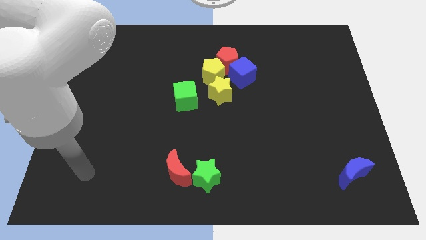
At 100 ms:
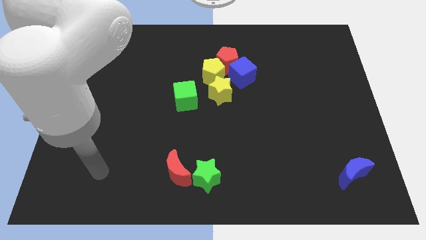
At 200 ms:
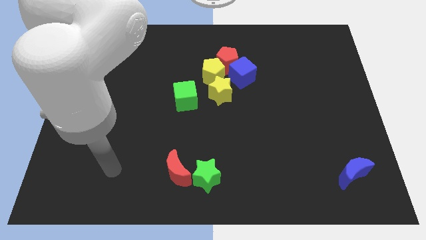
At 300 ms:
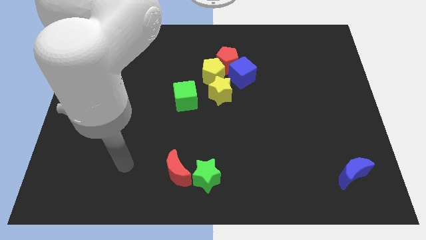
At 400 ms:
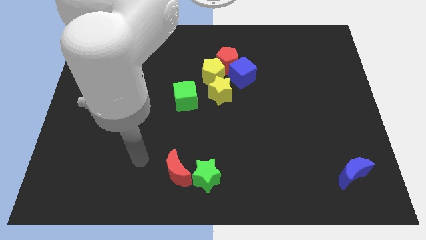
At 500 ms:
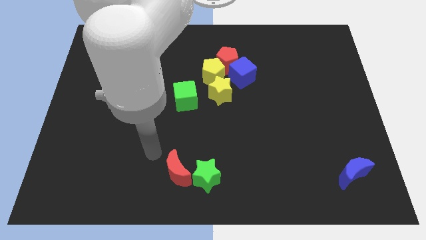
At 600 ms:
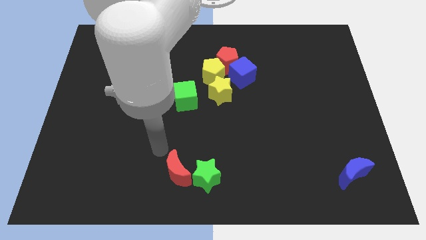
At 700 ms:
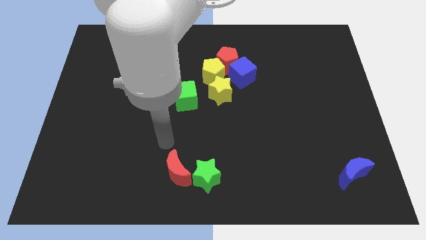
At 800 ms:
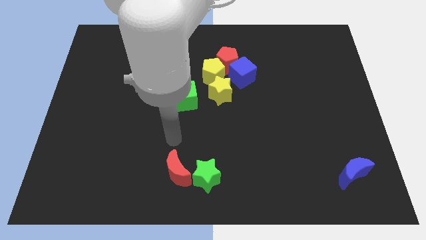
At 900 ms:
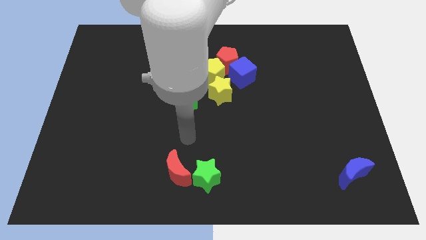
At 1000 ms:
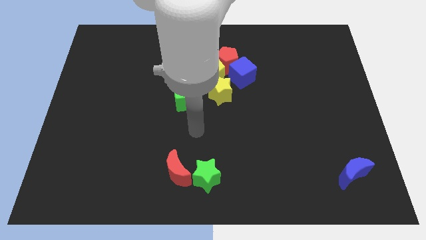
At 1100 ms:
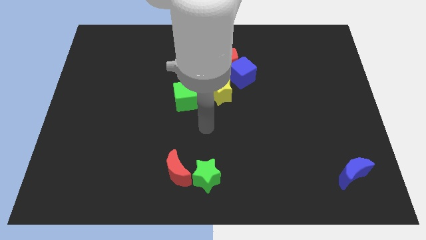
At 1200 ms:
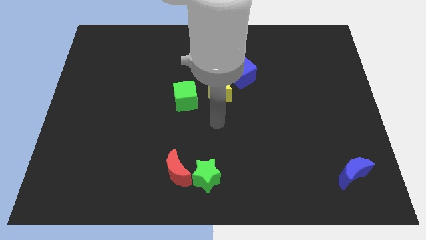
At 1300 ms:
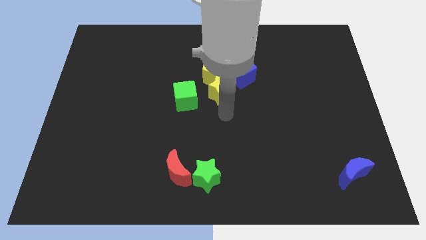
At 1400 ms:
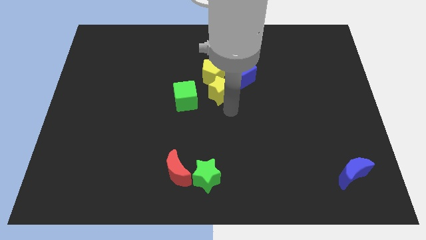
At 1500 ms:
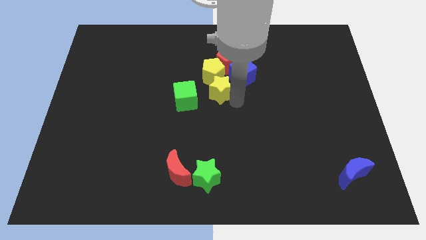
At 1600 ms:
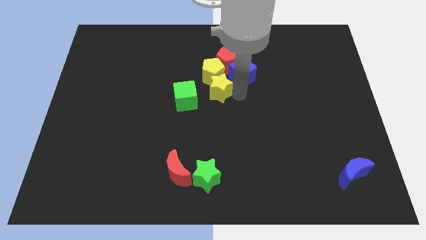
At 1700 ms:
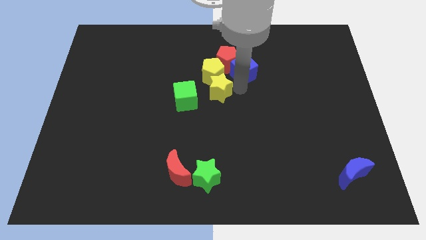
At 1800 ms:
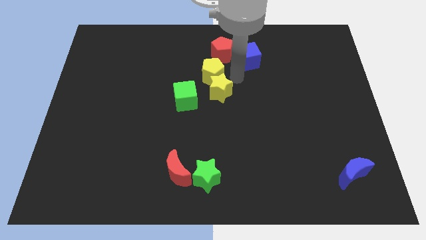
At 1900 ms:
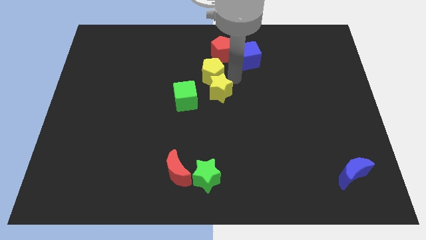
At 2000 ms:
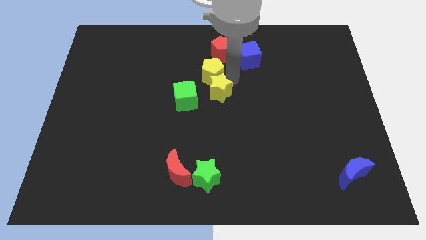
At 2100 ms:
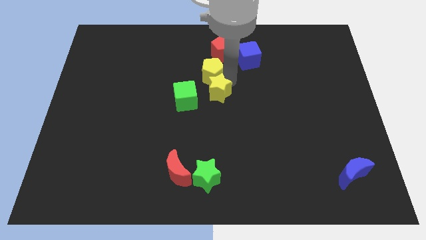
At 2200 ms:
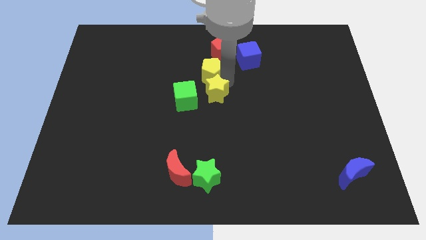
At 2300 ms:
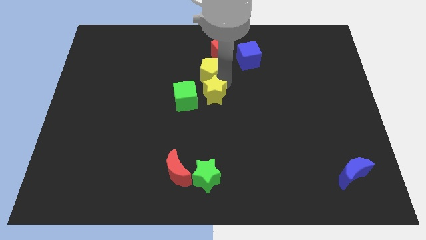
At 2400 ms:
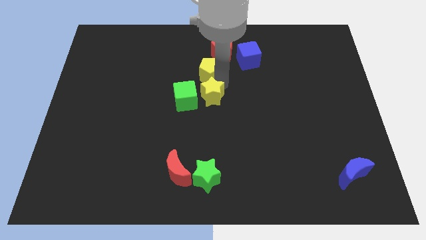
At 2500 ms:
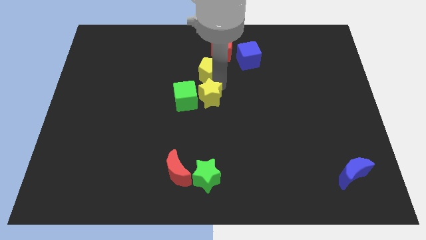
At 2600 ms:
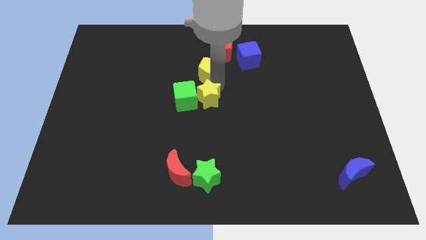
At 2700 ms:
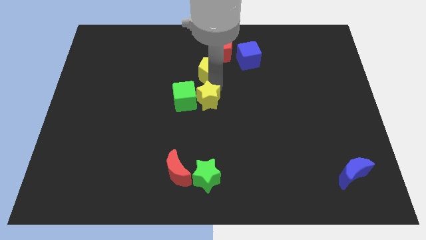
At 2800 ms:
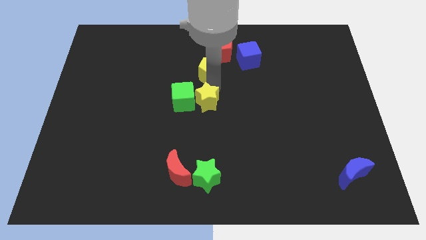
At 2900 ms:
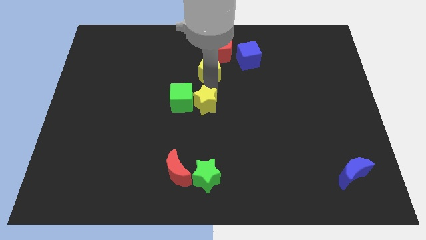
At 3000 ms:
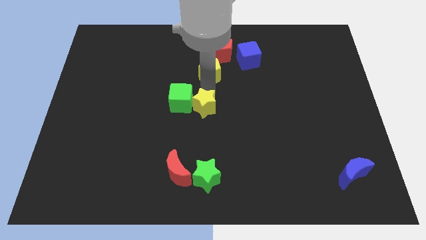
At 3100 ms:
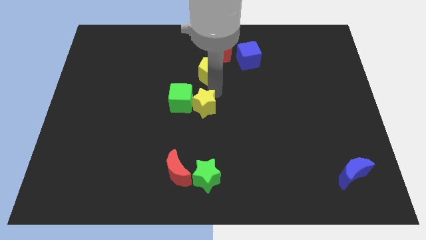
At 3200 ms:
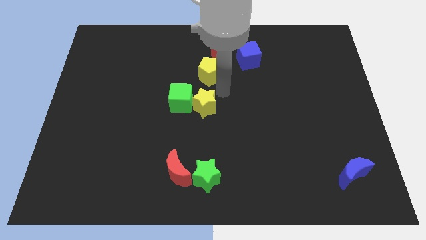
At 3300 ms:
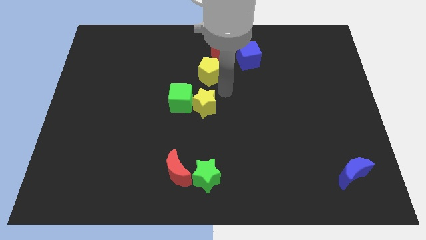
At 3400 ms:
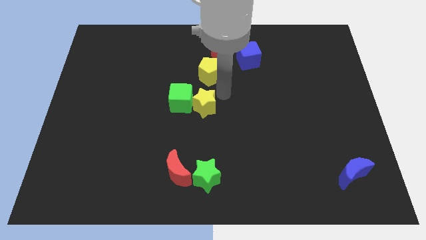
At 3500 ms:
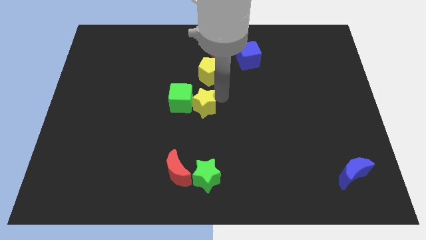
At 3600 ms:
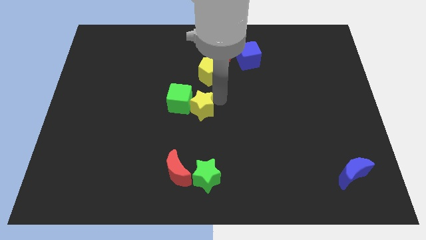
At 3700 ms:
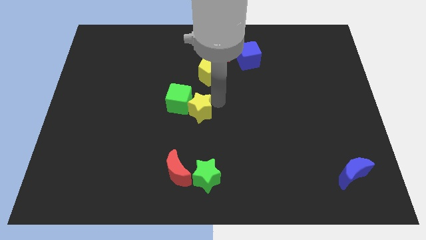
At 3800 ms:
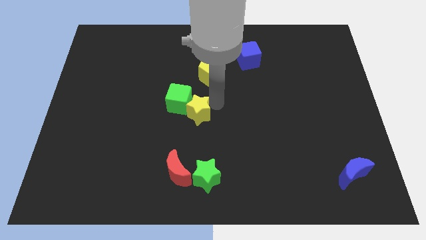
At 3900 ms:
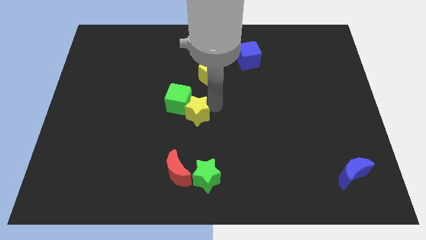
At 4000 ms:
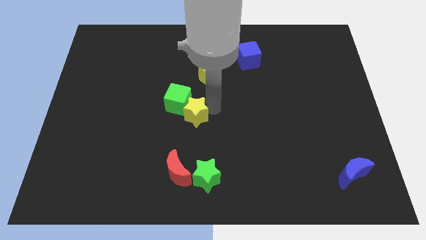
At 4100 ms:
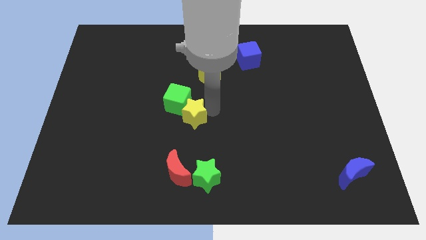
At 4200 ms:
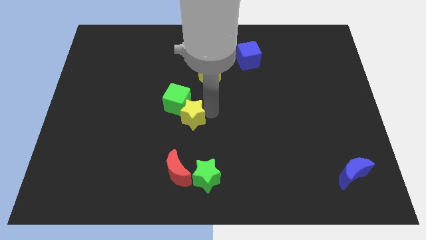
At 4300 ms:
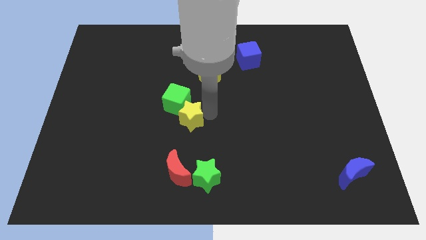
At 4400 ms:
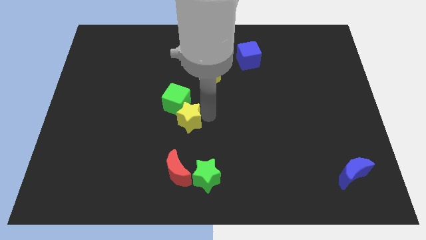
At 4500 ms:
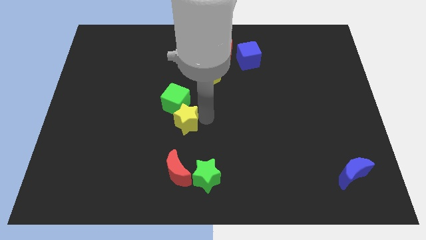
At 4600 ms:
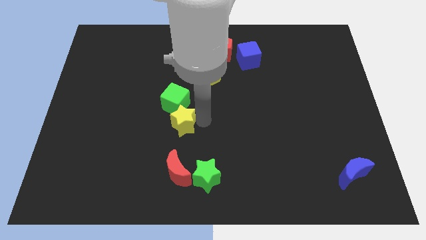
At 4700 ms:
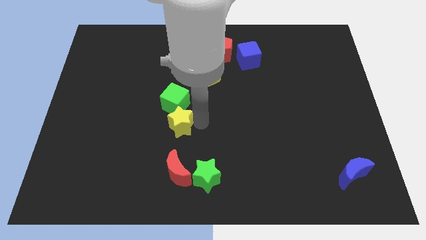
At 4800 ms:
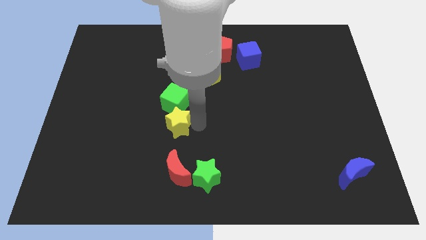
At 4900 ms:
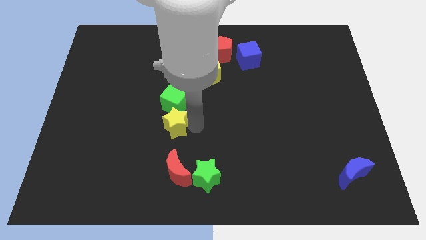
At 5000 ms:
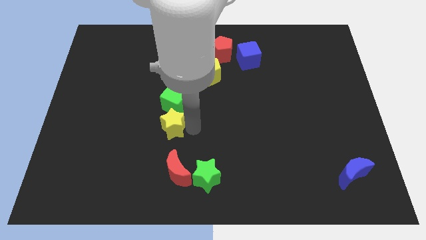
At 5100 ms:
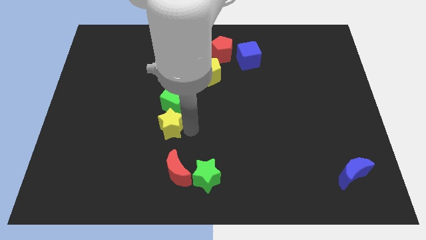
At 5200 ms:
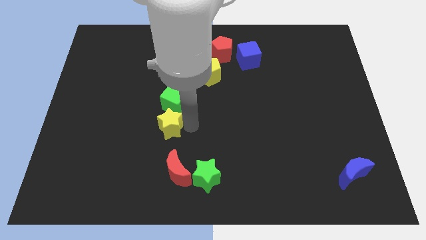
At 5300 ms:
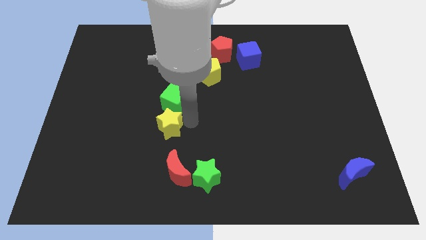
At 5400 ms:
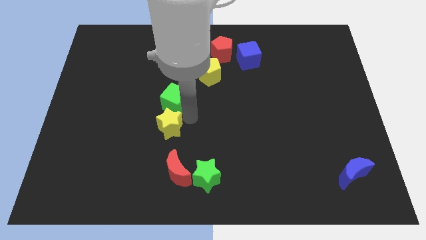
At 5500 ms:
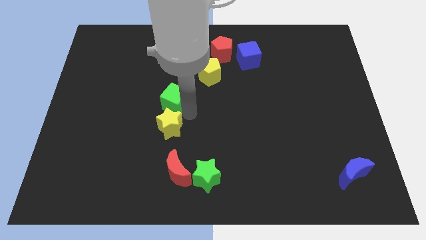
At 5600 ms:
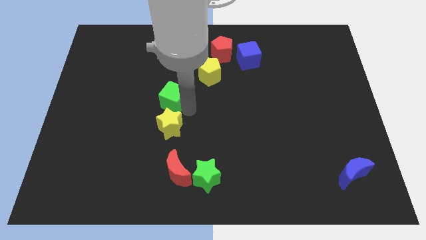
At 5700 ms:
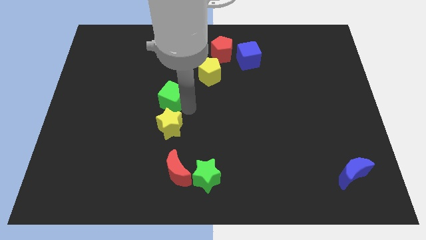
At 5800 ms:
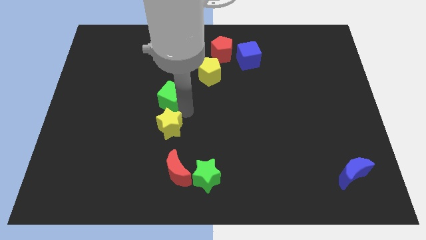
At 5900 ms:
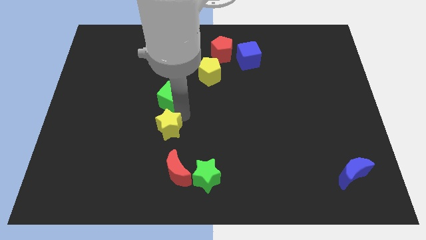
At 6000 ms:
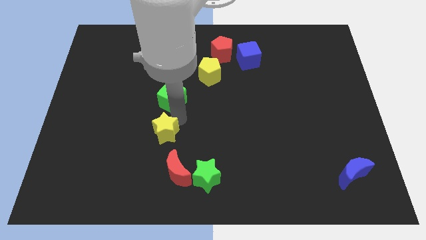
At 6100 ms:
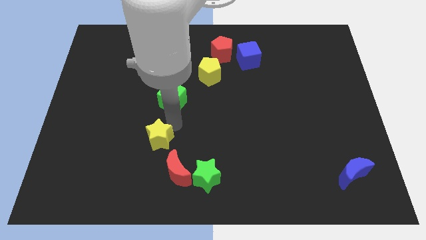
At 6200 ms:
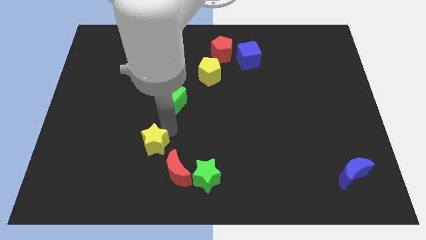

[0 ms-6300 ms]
push the yellow star downwards and then left

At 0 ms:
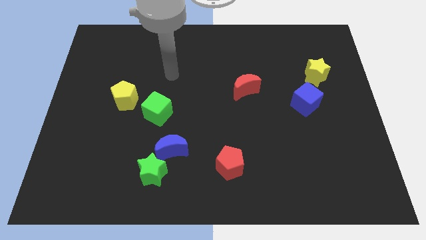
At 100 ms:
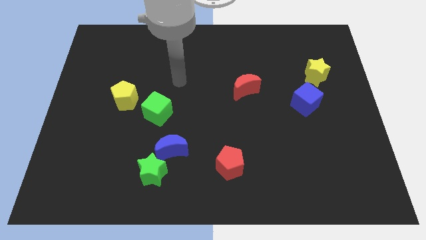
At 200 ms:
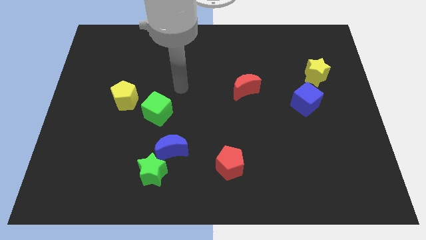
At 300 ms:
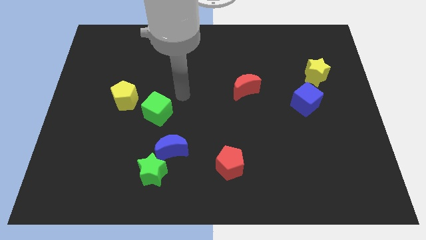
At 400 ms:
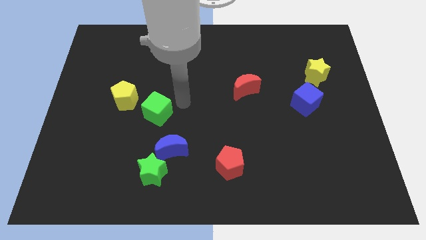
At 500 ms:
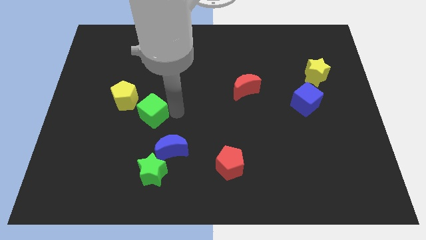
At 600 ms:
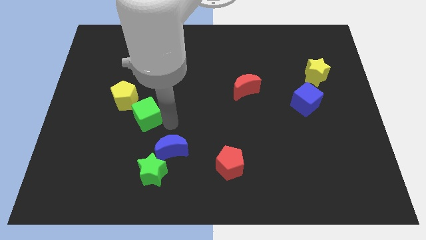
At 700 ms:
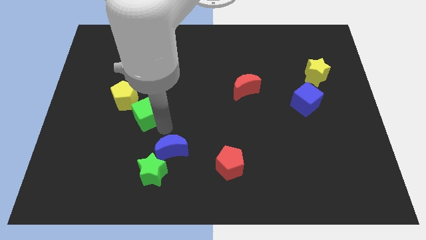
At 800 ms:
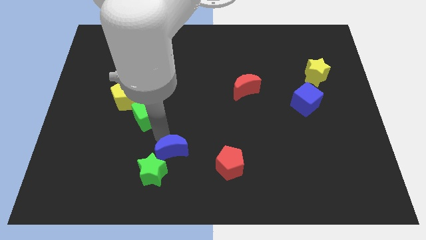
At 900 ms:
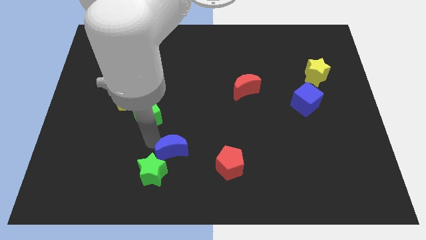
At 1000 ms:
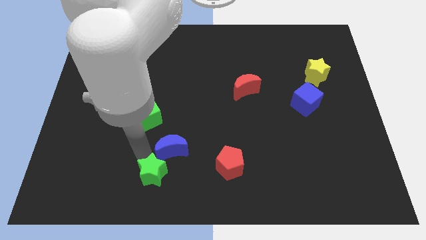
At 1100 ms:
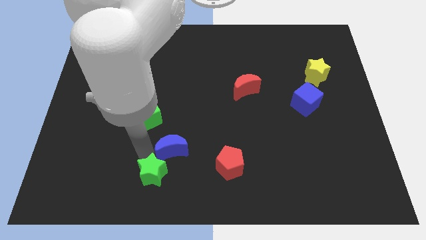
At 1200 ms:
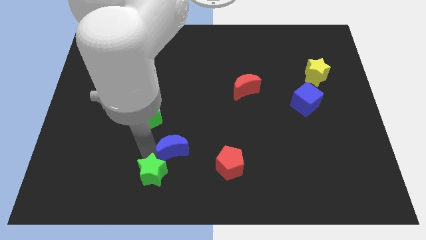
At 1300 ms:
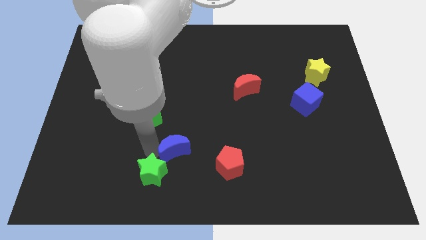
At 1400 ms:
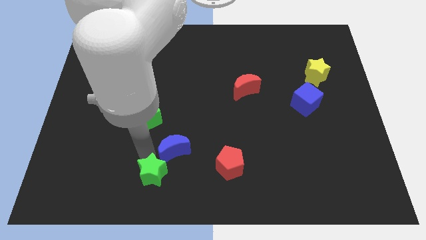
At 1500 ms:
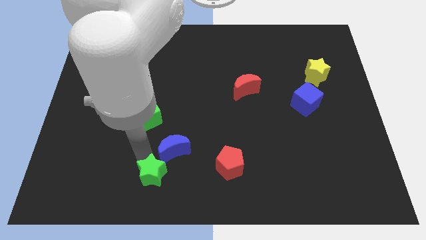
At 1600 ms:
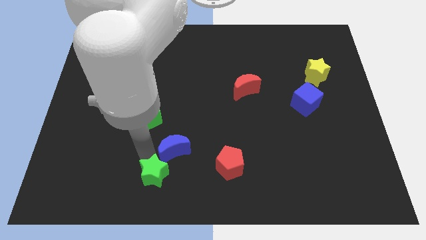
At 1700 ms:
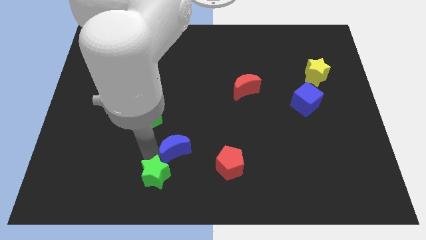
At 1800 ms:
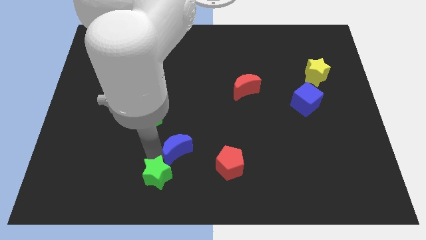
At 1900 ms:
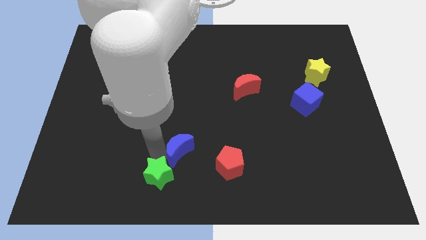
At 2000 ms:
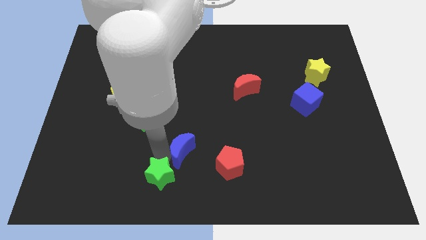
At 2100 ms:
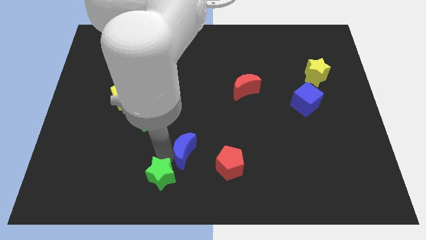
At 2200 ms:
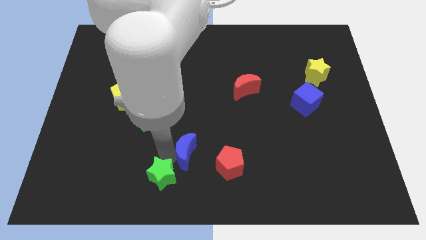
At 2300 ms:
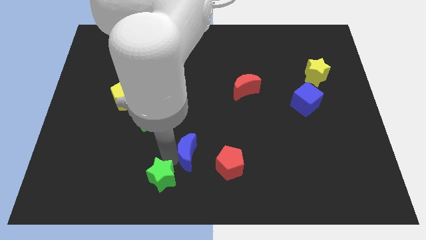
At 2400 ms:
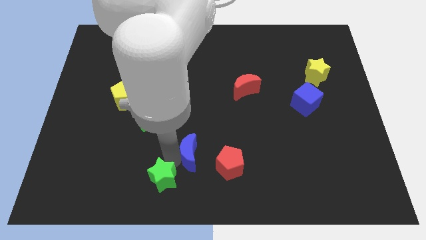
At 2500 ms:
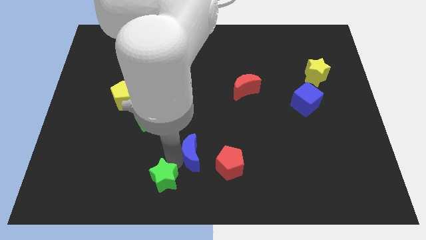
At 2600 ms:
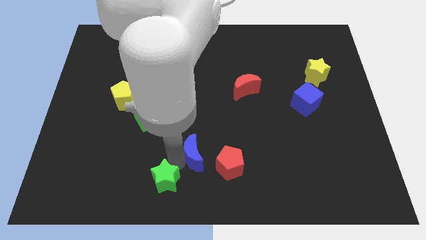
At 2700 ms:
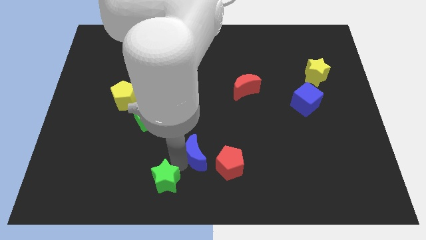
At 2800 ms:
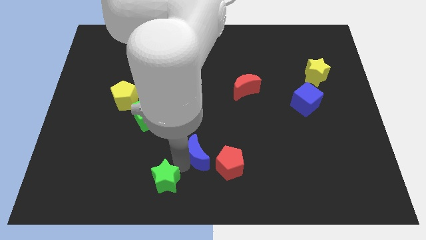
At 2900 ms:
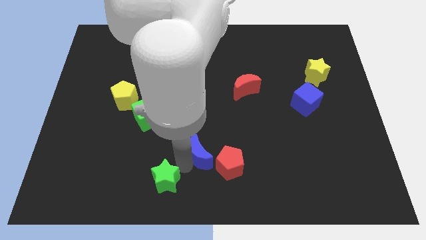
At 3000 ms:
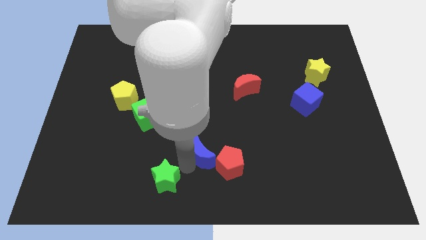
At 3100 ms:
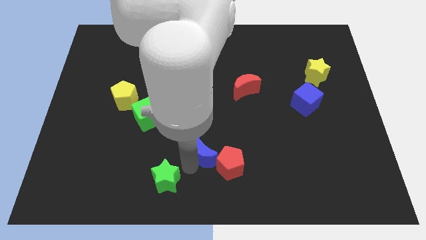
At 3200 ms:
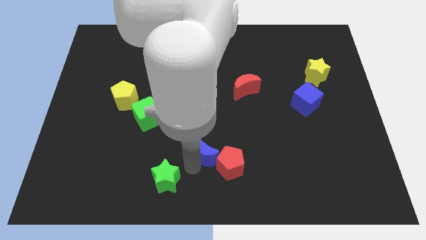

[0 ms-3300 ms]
slightly slide the blue moon to the right
